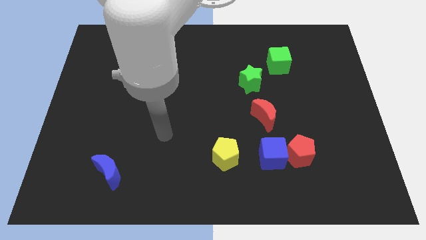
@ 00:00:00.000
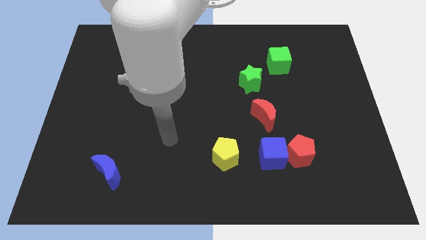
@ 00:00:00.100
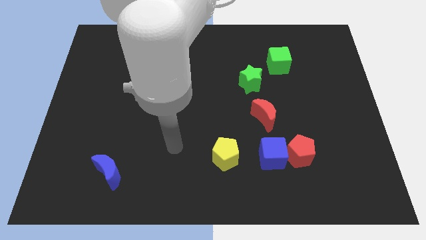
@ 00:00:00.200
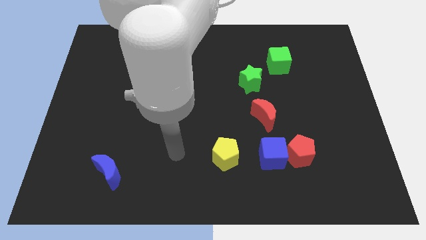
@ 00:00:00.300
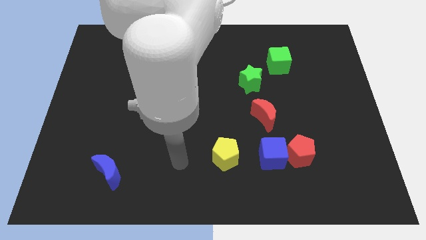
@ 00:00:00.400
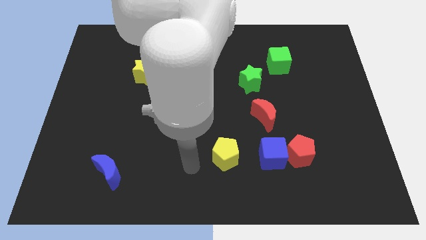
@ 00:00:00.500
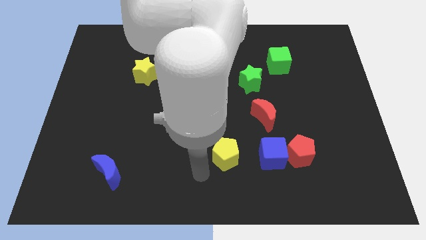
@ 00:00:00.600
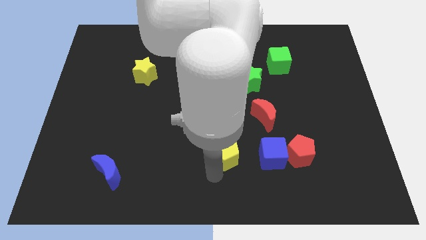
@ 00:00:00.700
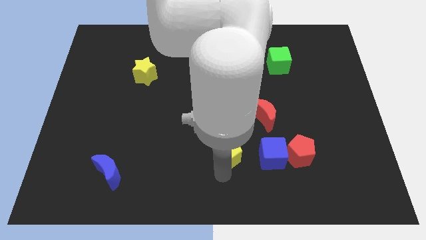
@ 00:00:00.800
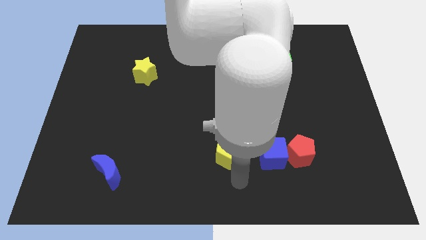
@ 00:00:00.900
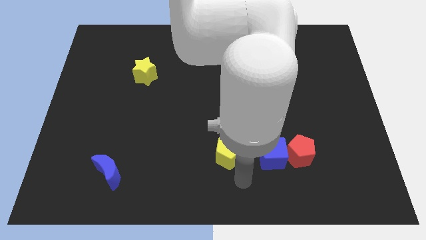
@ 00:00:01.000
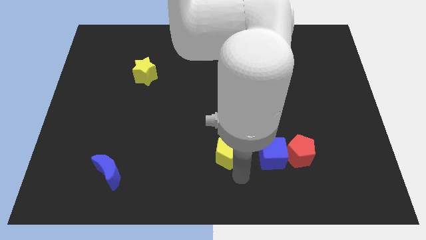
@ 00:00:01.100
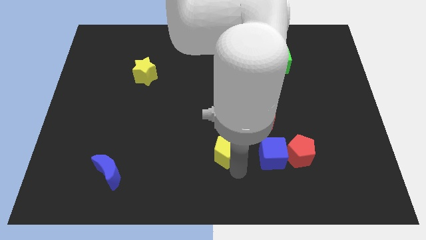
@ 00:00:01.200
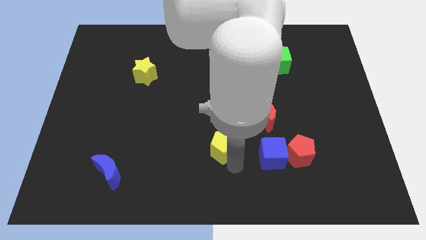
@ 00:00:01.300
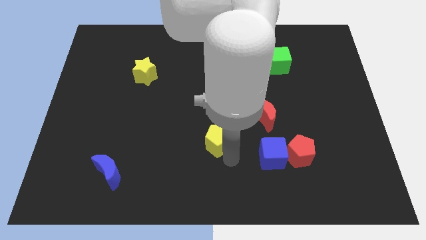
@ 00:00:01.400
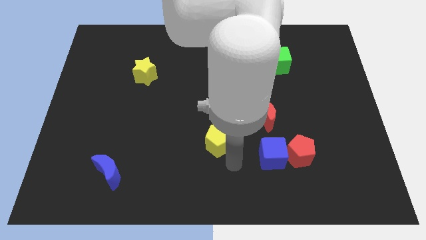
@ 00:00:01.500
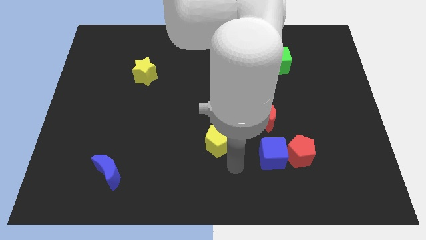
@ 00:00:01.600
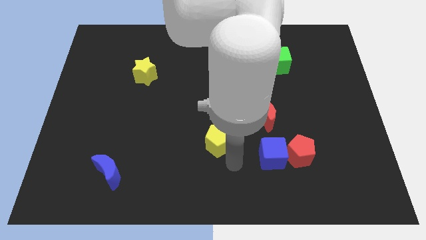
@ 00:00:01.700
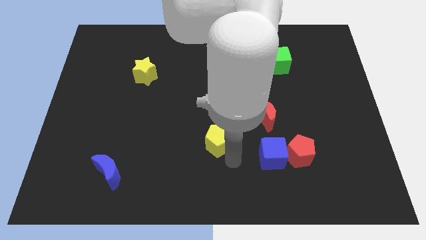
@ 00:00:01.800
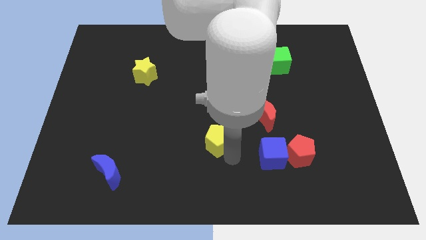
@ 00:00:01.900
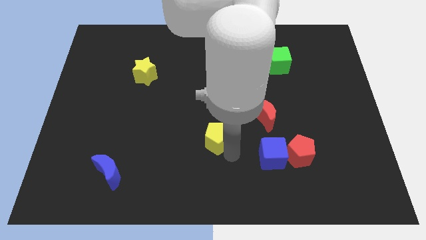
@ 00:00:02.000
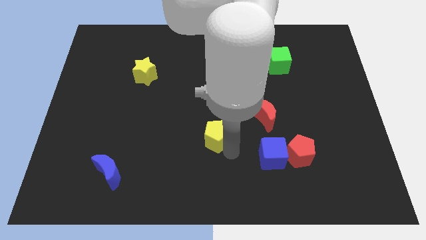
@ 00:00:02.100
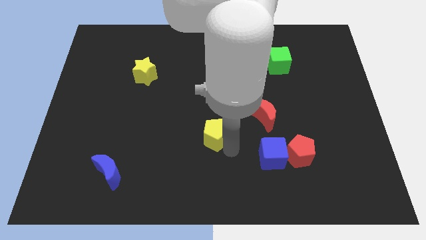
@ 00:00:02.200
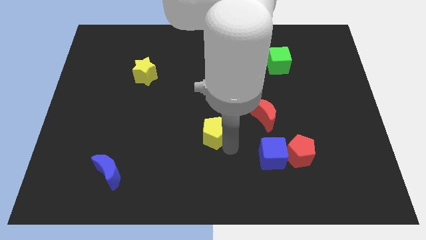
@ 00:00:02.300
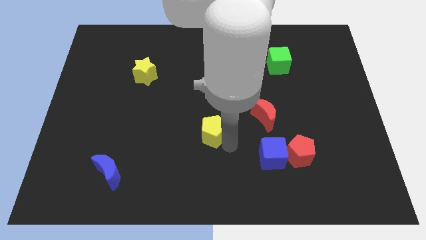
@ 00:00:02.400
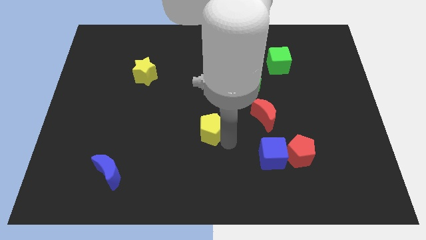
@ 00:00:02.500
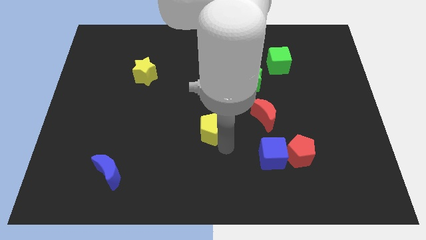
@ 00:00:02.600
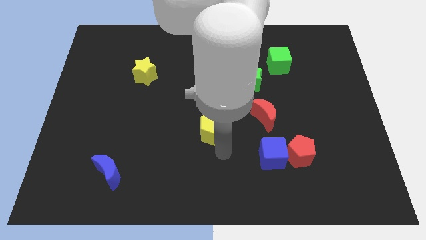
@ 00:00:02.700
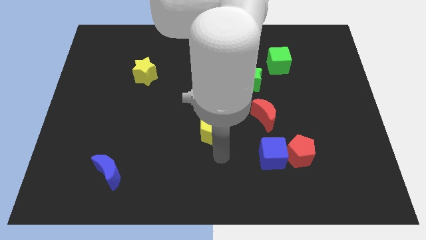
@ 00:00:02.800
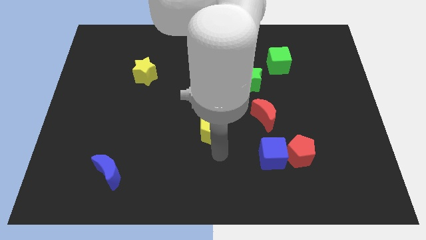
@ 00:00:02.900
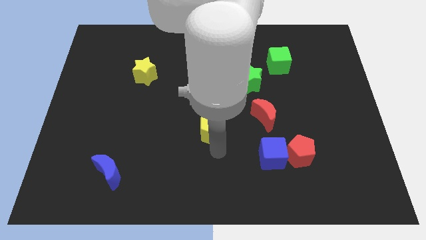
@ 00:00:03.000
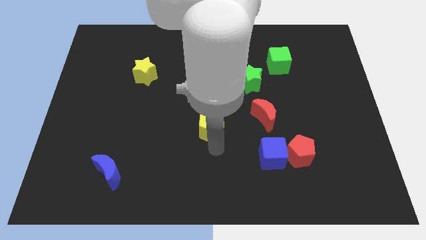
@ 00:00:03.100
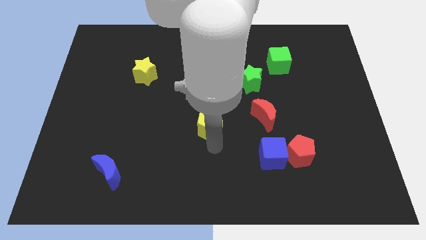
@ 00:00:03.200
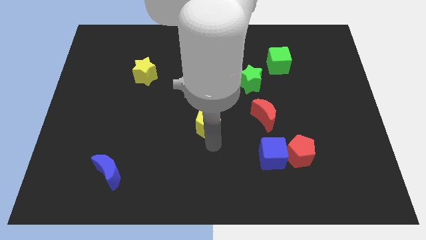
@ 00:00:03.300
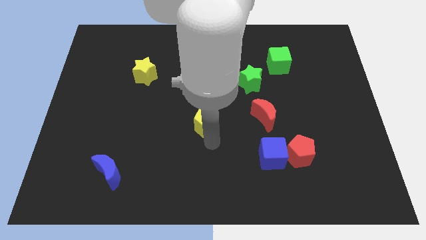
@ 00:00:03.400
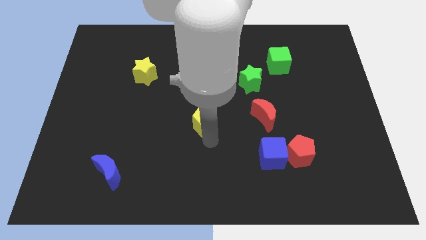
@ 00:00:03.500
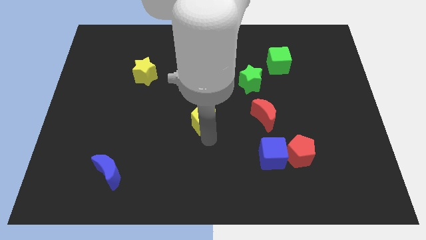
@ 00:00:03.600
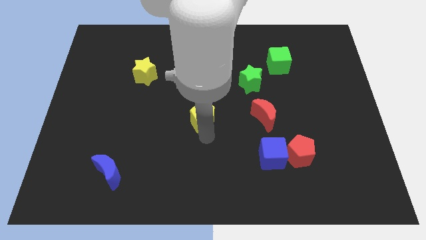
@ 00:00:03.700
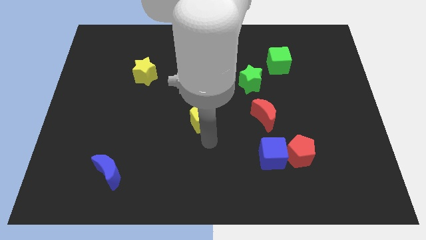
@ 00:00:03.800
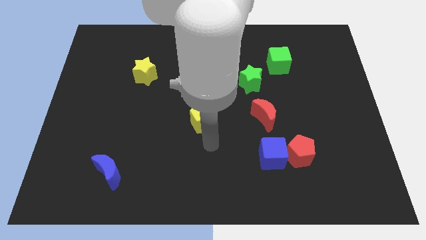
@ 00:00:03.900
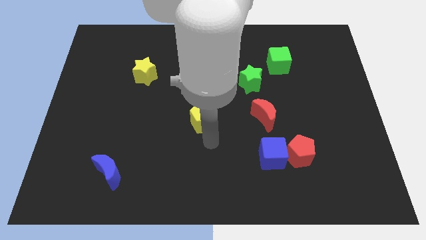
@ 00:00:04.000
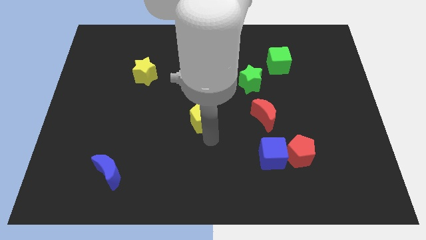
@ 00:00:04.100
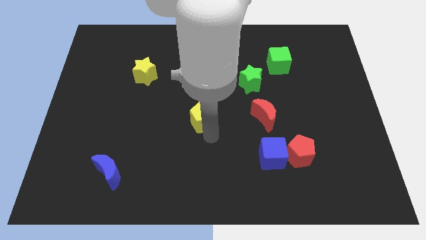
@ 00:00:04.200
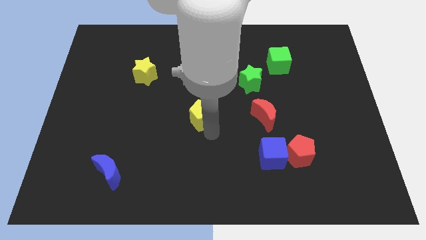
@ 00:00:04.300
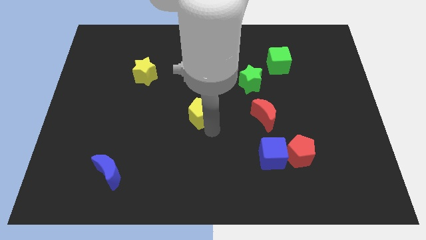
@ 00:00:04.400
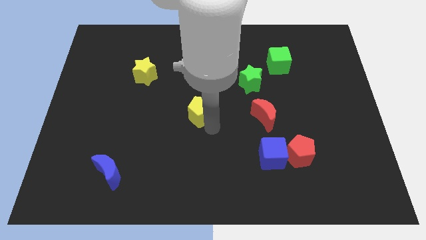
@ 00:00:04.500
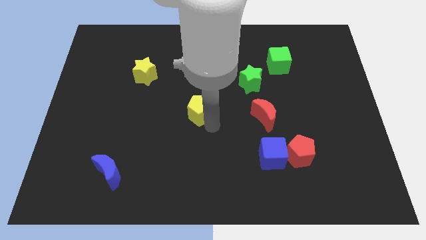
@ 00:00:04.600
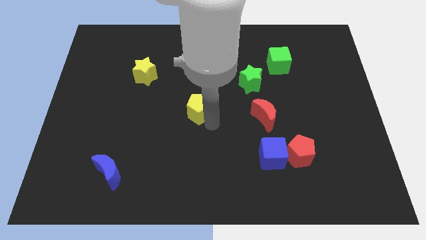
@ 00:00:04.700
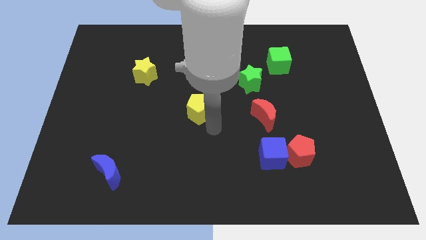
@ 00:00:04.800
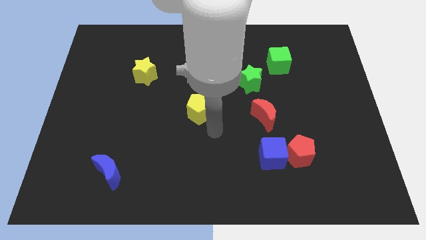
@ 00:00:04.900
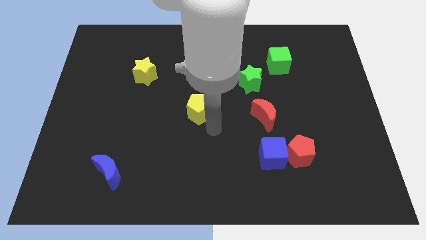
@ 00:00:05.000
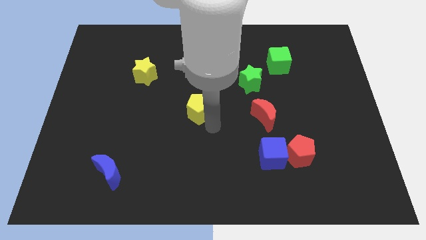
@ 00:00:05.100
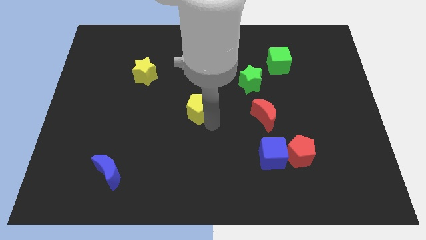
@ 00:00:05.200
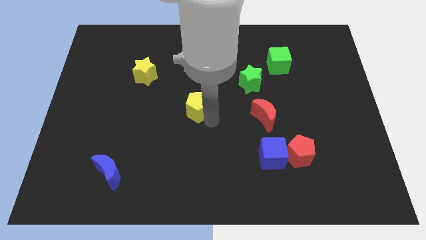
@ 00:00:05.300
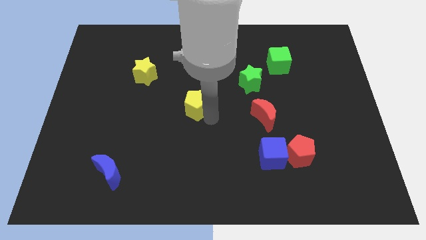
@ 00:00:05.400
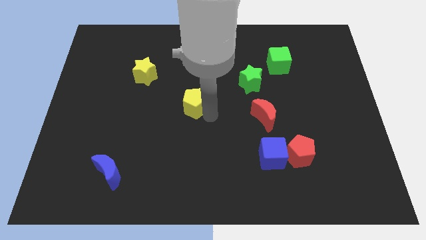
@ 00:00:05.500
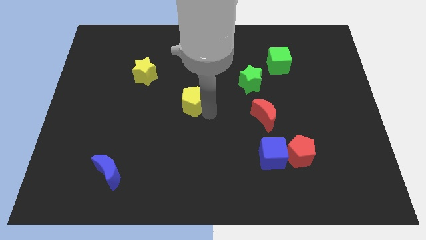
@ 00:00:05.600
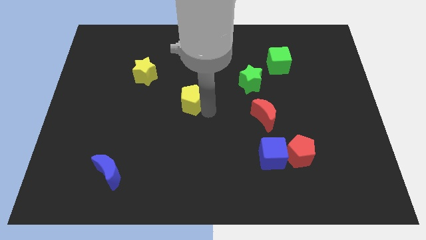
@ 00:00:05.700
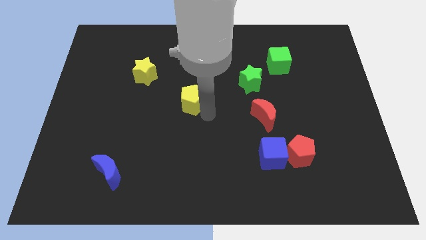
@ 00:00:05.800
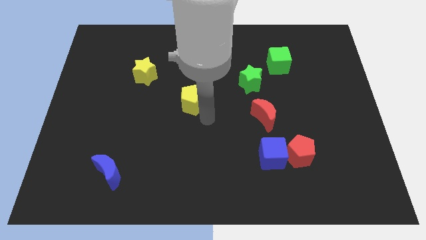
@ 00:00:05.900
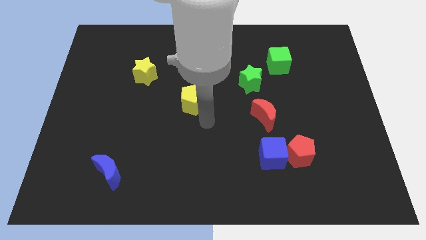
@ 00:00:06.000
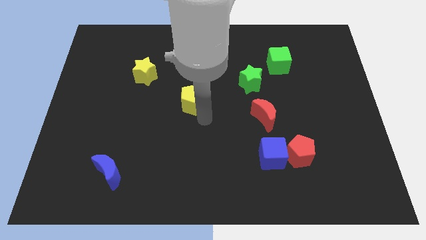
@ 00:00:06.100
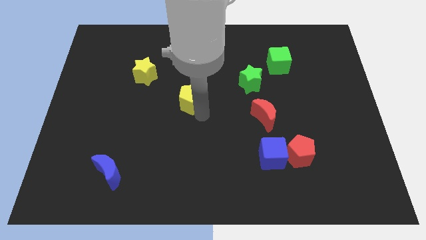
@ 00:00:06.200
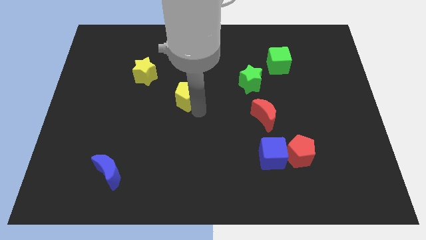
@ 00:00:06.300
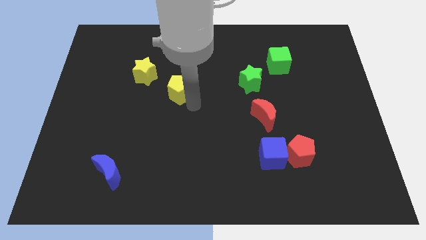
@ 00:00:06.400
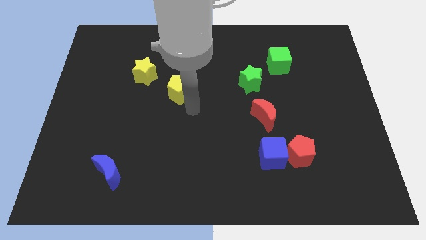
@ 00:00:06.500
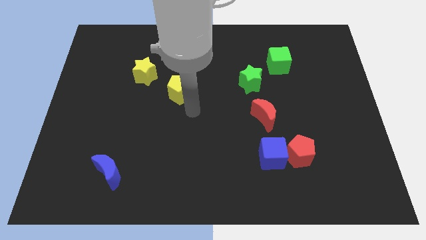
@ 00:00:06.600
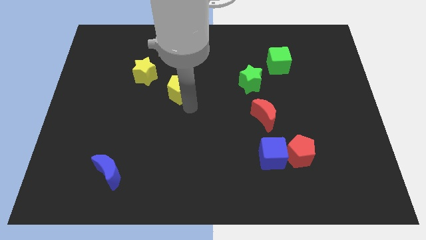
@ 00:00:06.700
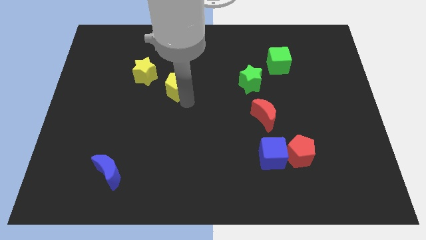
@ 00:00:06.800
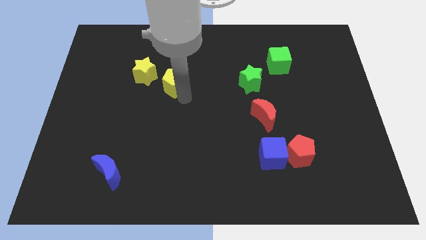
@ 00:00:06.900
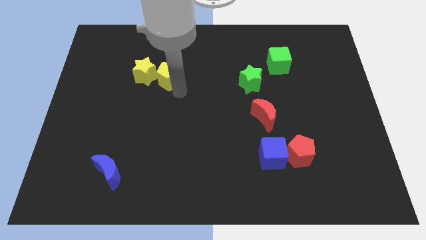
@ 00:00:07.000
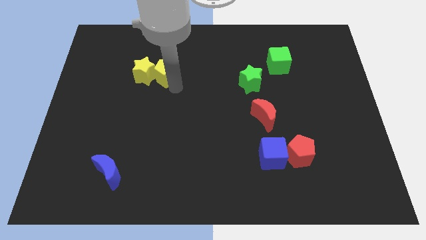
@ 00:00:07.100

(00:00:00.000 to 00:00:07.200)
slide the yellow pentagon to the top right of the yellow star
